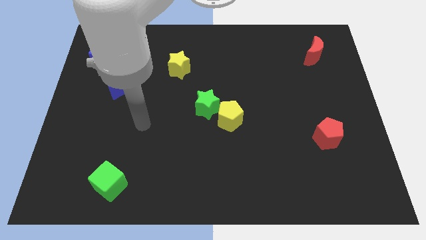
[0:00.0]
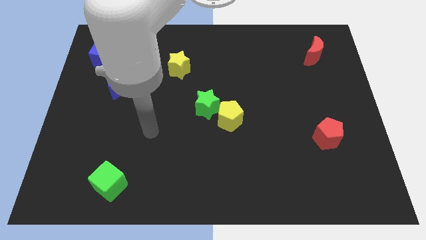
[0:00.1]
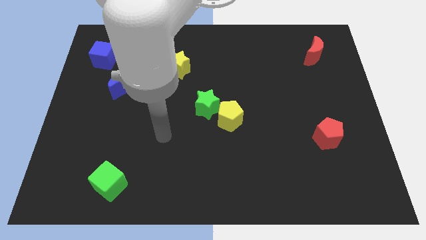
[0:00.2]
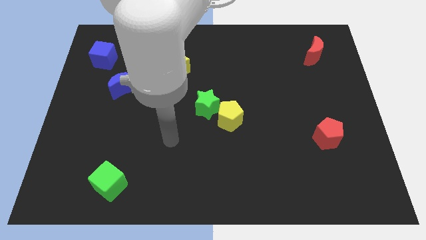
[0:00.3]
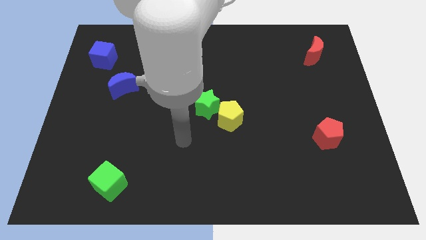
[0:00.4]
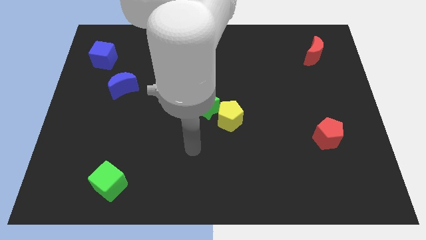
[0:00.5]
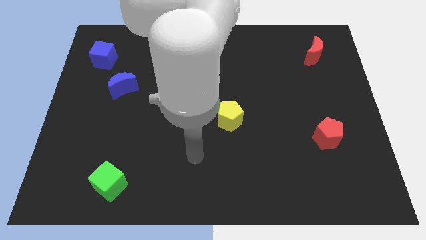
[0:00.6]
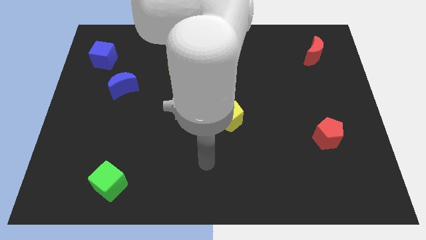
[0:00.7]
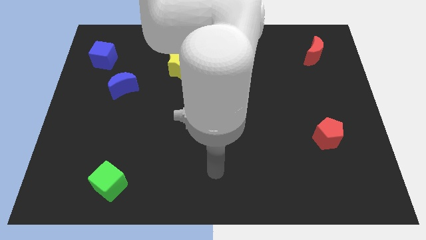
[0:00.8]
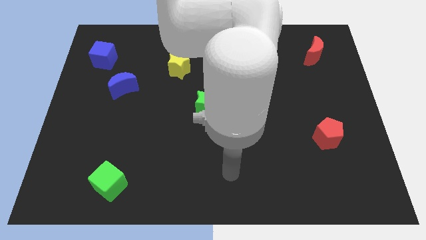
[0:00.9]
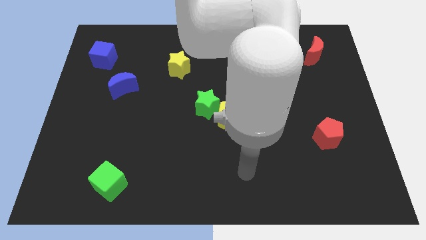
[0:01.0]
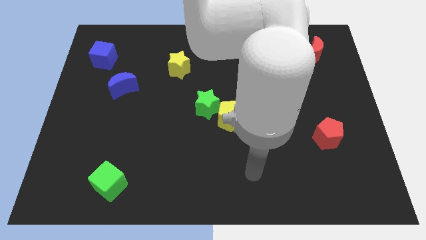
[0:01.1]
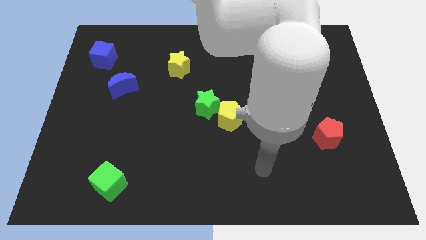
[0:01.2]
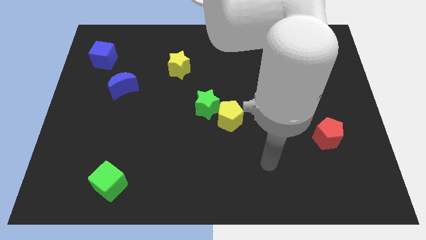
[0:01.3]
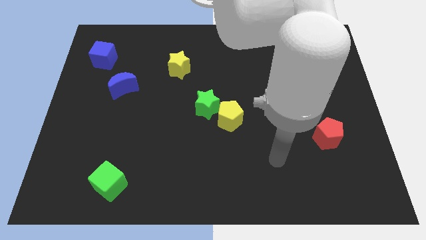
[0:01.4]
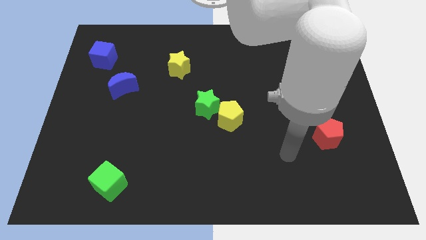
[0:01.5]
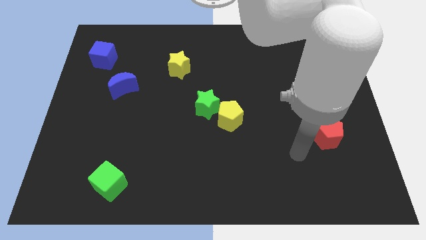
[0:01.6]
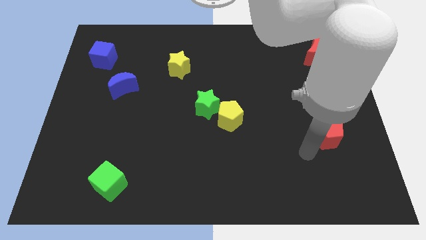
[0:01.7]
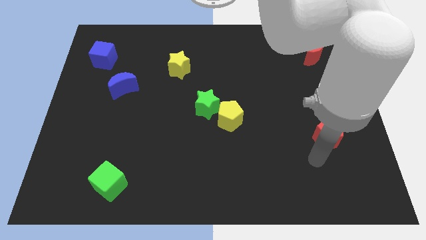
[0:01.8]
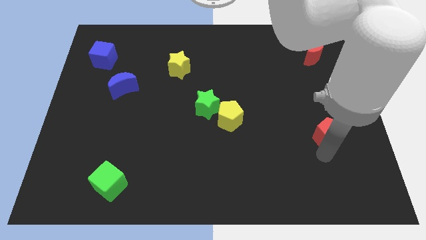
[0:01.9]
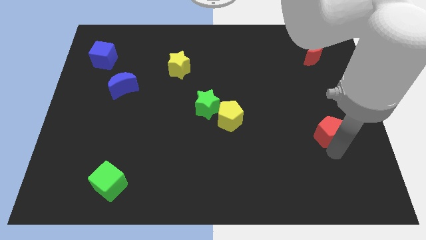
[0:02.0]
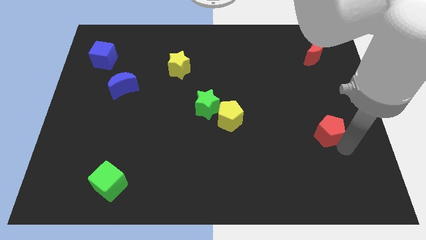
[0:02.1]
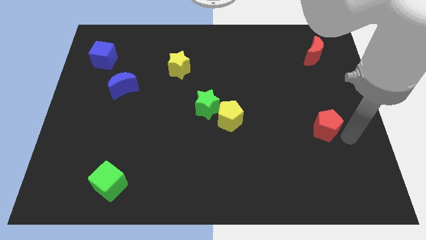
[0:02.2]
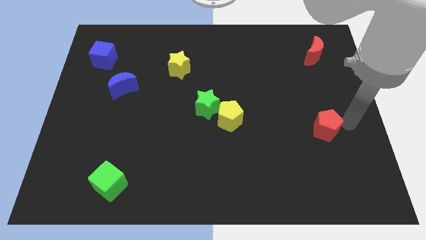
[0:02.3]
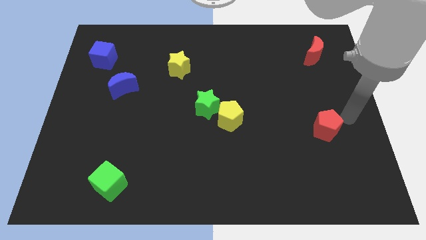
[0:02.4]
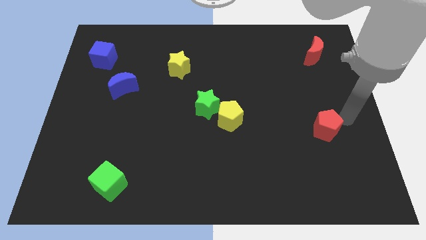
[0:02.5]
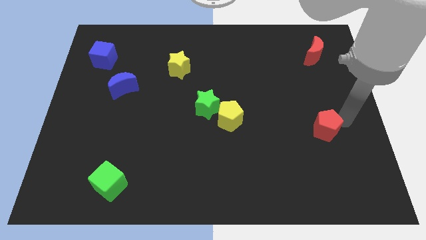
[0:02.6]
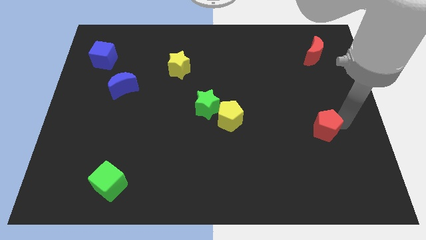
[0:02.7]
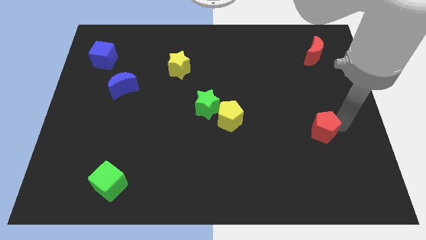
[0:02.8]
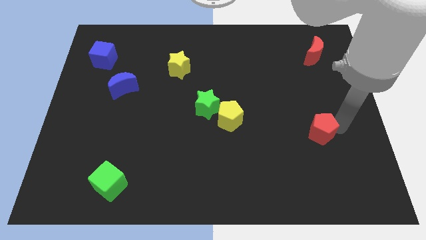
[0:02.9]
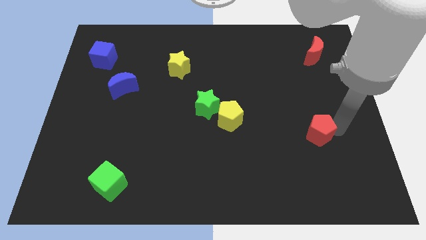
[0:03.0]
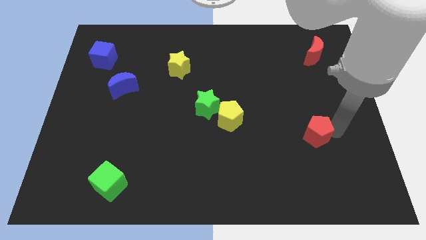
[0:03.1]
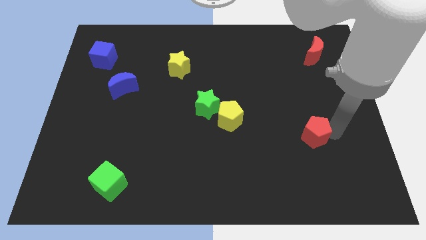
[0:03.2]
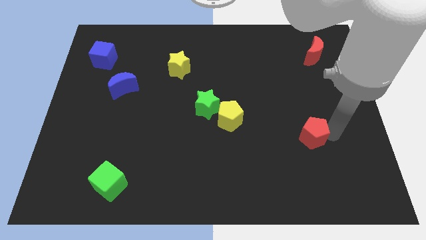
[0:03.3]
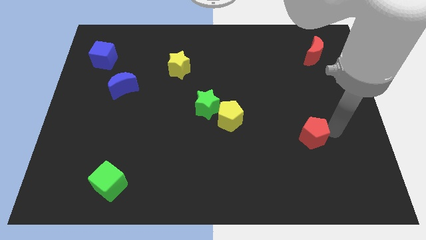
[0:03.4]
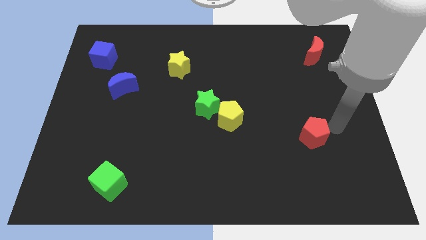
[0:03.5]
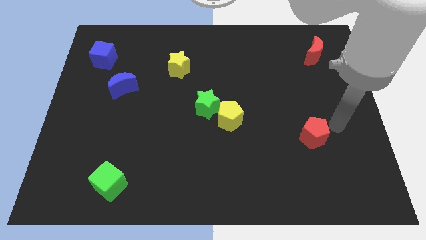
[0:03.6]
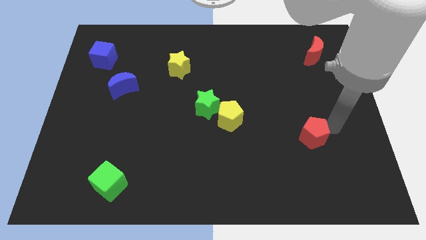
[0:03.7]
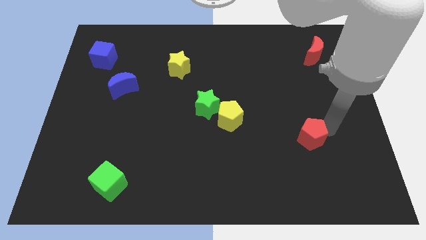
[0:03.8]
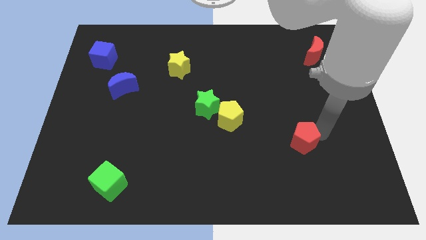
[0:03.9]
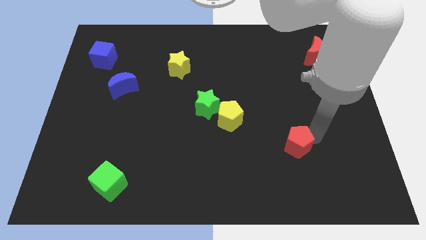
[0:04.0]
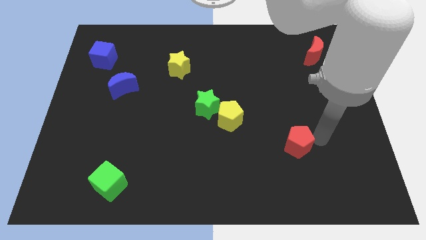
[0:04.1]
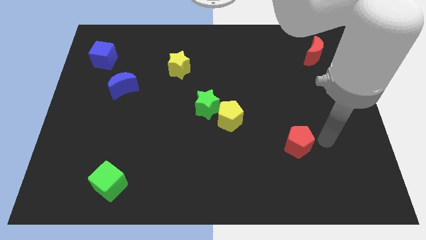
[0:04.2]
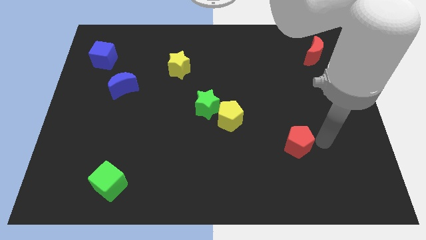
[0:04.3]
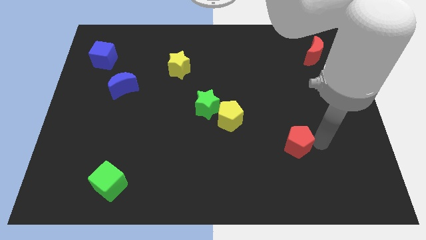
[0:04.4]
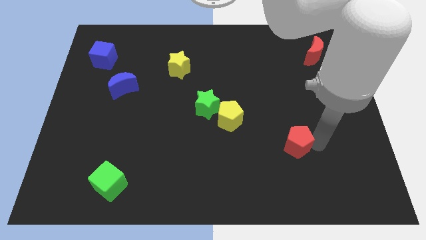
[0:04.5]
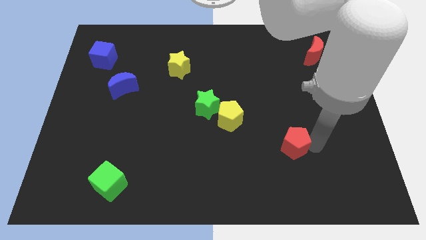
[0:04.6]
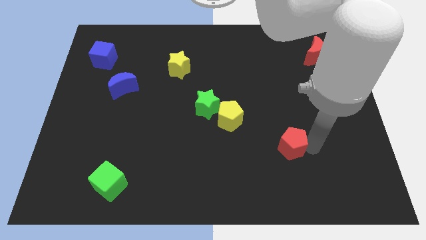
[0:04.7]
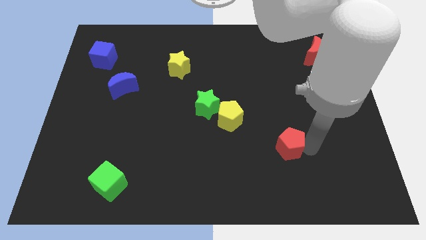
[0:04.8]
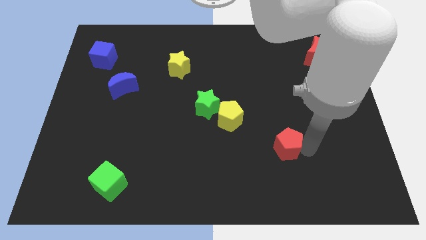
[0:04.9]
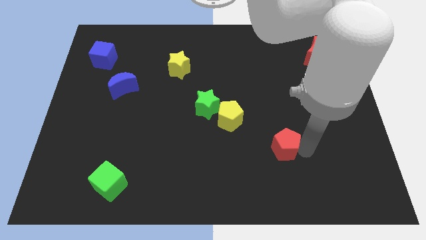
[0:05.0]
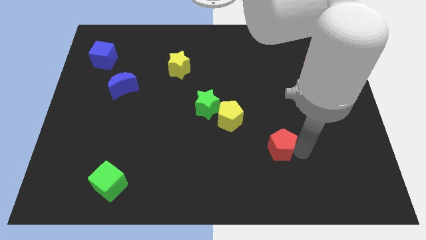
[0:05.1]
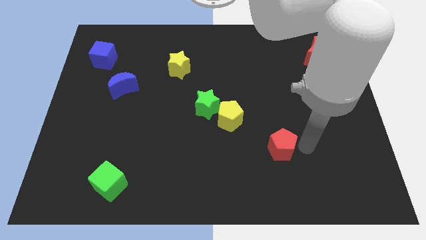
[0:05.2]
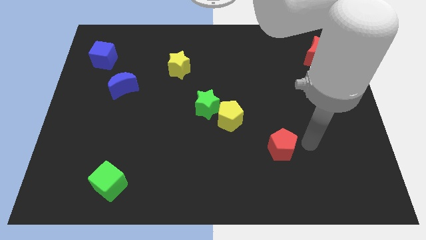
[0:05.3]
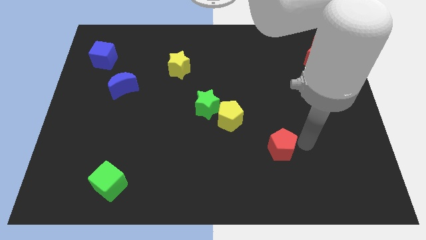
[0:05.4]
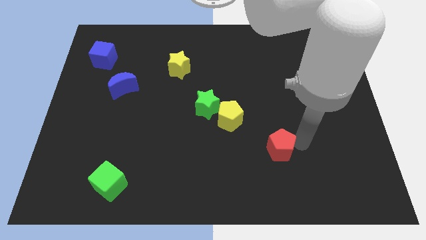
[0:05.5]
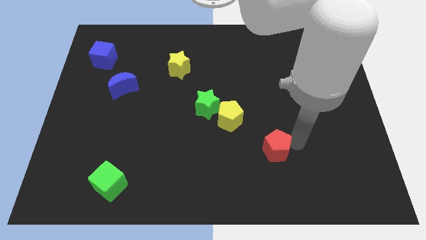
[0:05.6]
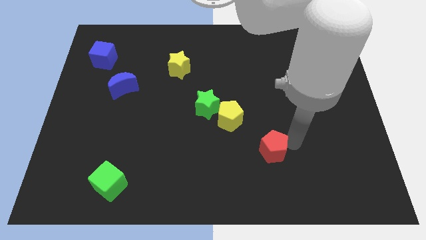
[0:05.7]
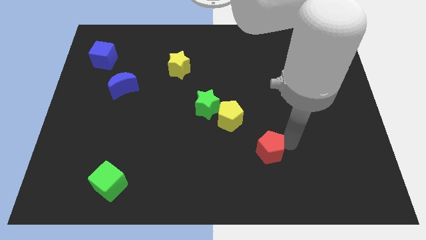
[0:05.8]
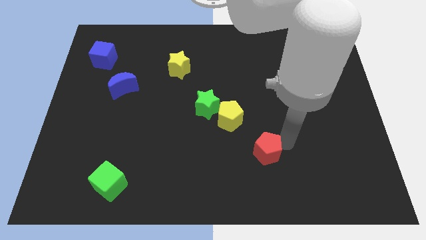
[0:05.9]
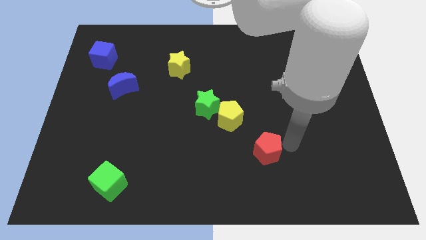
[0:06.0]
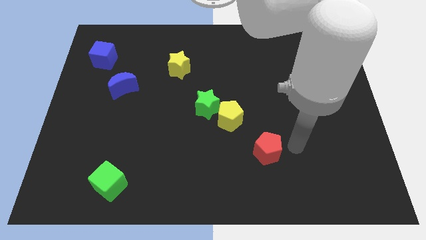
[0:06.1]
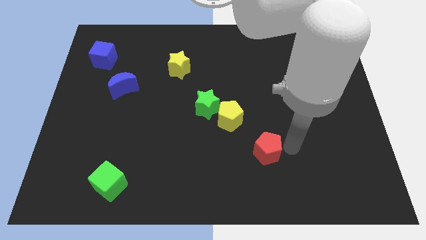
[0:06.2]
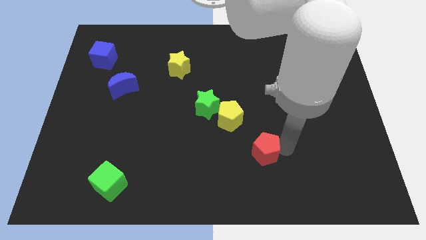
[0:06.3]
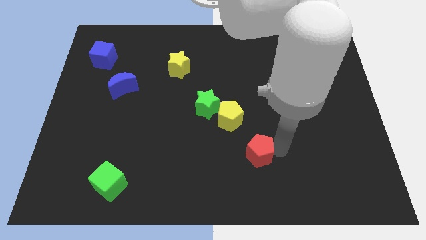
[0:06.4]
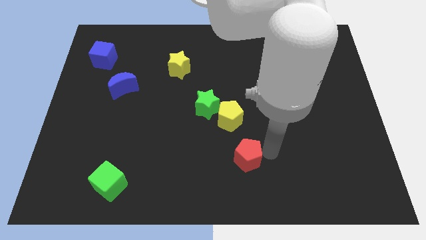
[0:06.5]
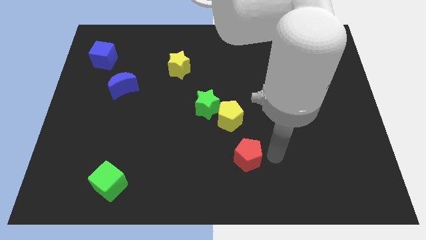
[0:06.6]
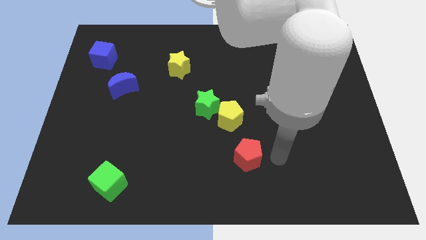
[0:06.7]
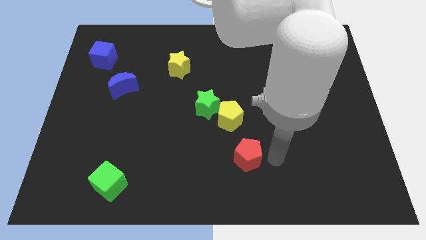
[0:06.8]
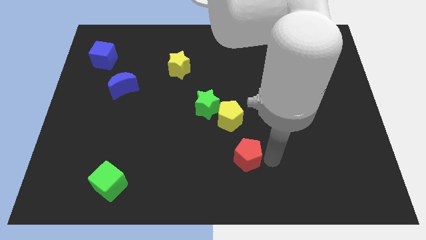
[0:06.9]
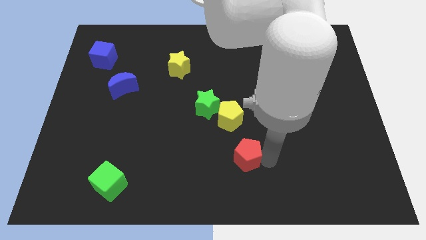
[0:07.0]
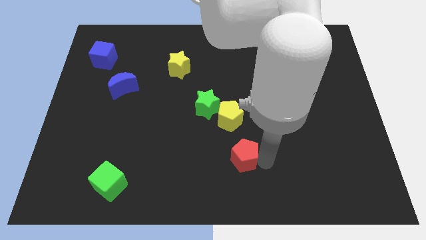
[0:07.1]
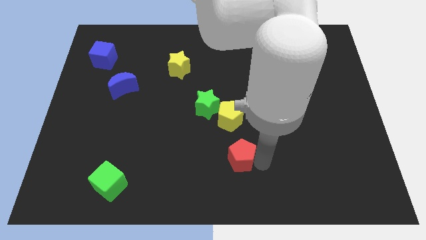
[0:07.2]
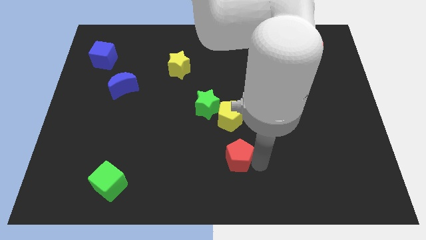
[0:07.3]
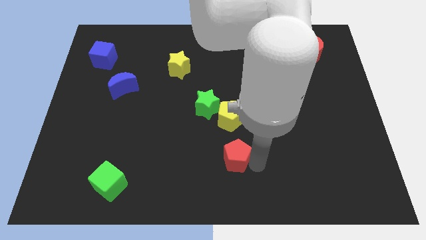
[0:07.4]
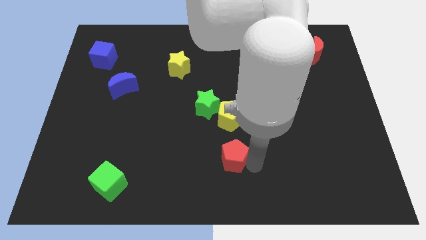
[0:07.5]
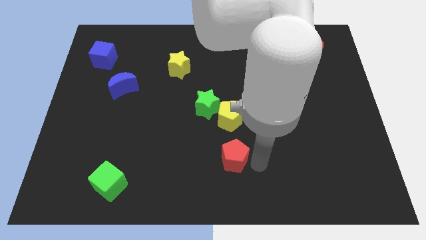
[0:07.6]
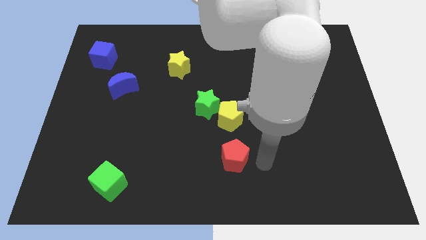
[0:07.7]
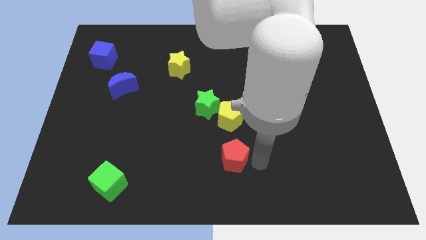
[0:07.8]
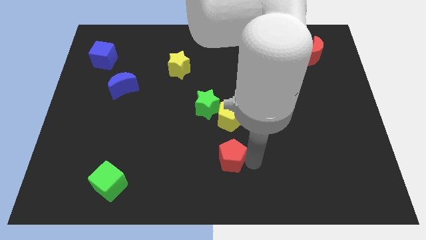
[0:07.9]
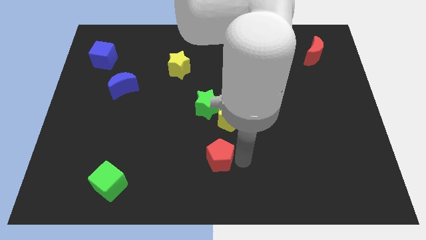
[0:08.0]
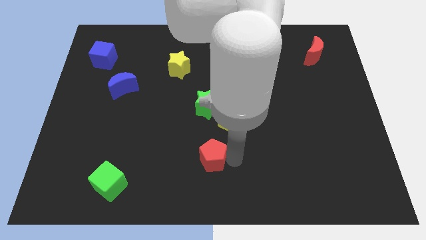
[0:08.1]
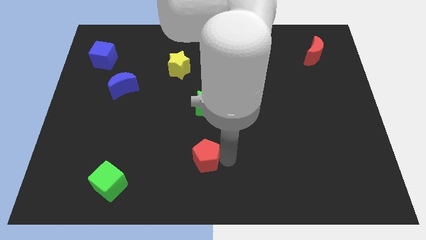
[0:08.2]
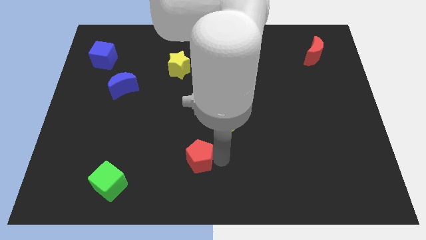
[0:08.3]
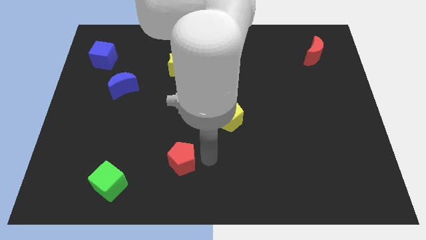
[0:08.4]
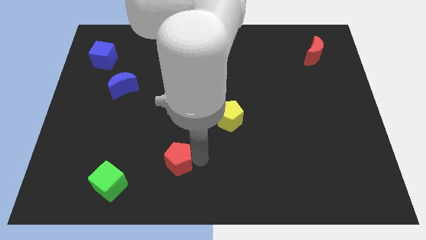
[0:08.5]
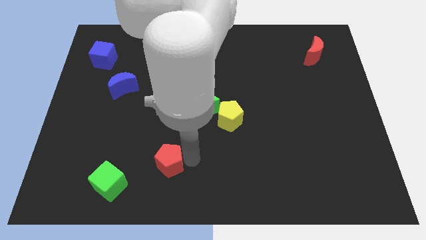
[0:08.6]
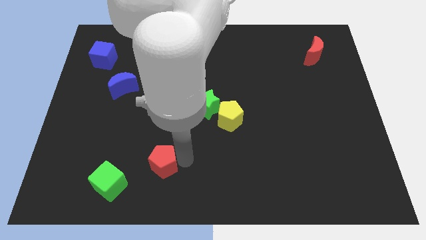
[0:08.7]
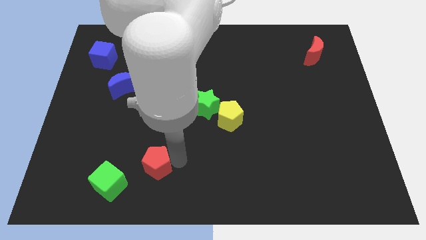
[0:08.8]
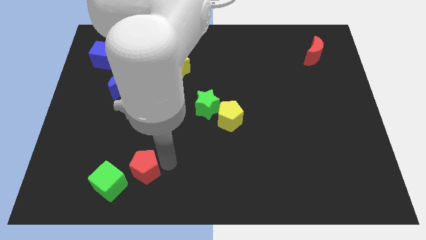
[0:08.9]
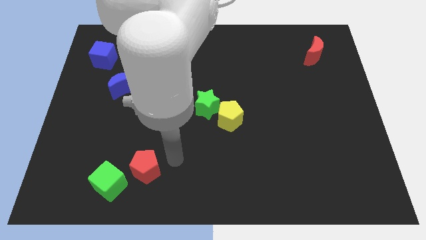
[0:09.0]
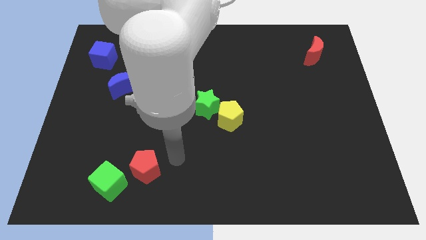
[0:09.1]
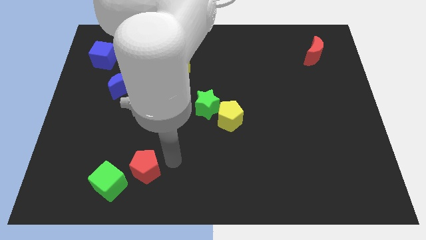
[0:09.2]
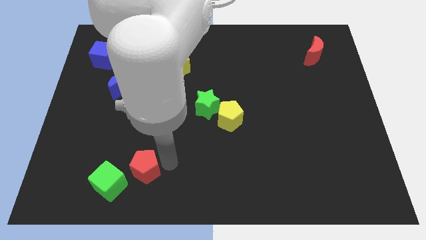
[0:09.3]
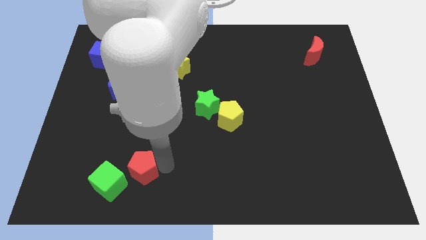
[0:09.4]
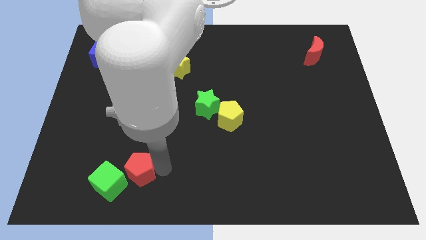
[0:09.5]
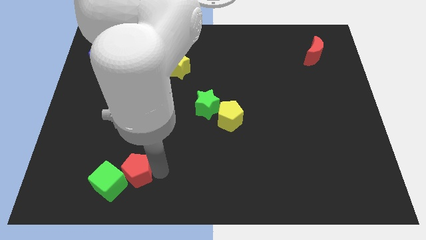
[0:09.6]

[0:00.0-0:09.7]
put the red pentagon towards the green cube
